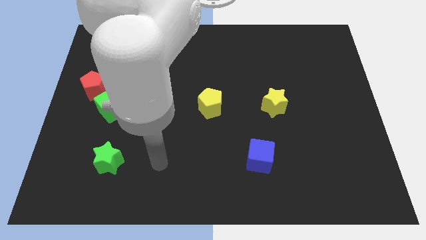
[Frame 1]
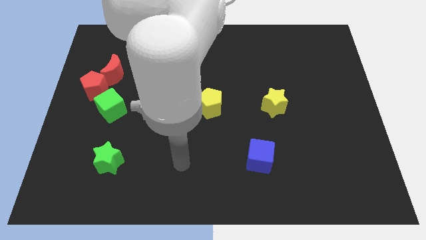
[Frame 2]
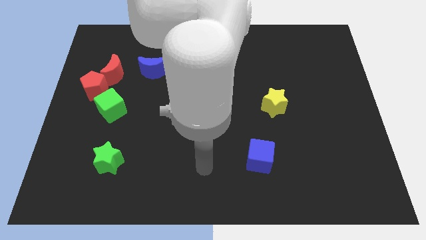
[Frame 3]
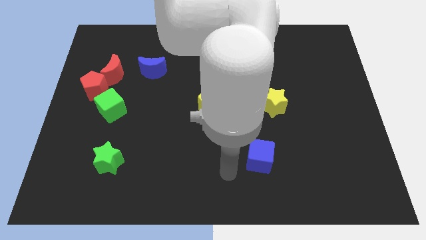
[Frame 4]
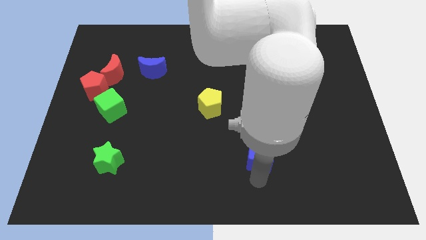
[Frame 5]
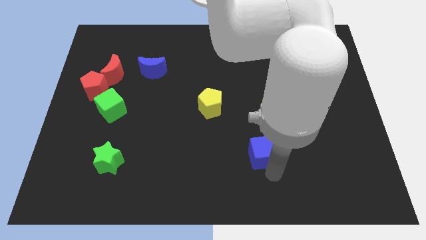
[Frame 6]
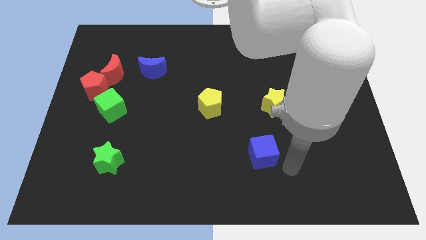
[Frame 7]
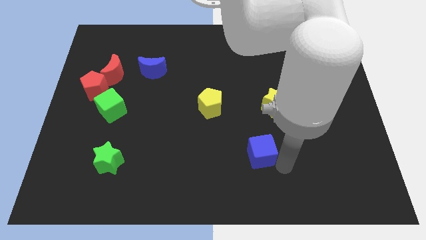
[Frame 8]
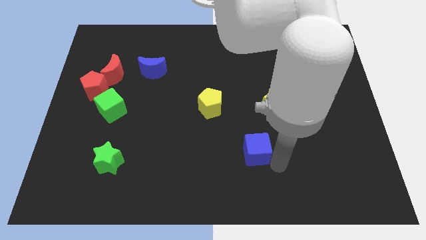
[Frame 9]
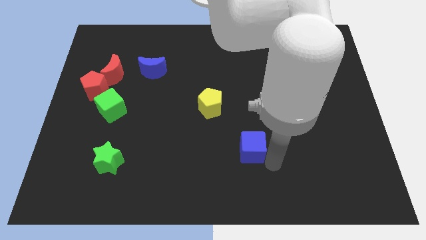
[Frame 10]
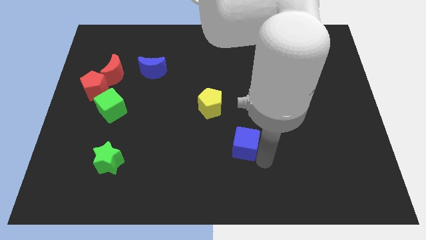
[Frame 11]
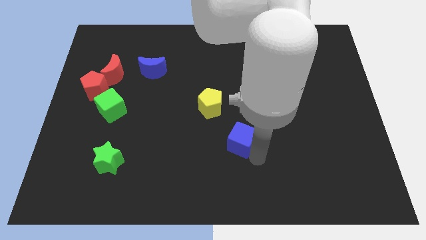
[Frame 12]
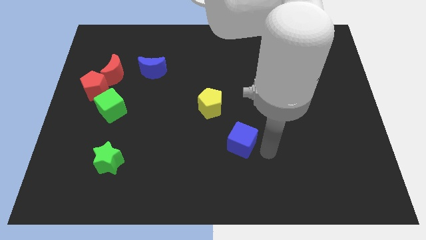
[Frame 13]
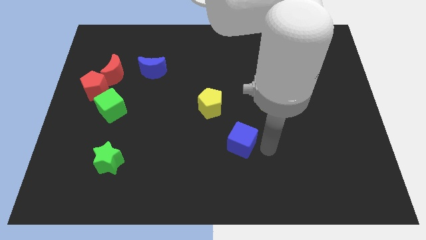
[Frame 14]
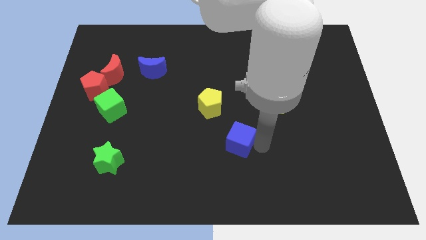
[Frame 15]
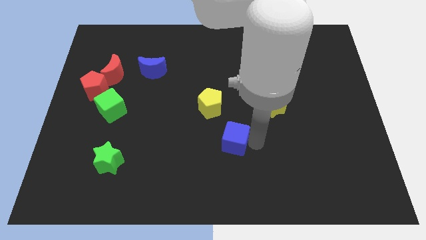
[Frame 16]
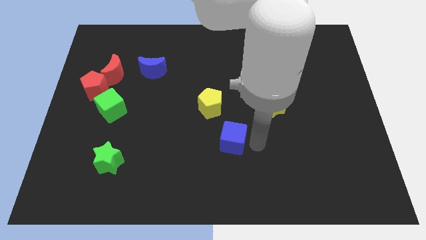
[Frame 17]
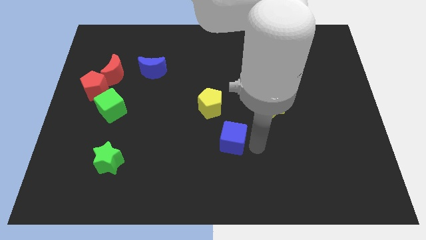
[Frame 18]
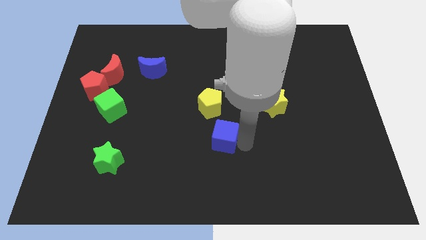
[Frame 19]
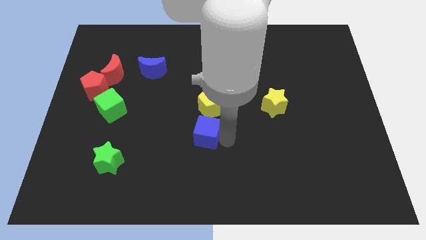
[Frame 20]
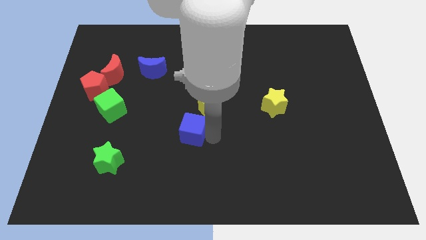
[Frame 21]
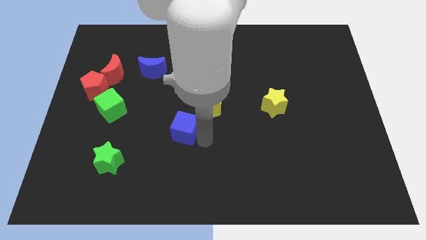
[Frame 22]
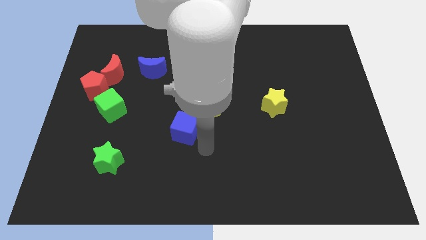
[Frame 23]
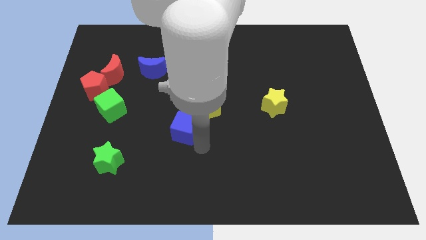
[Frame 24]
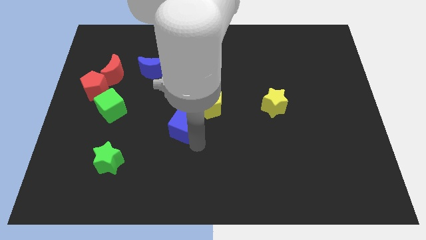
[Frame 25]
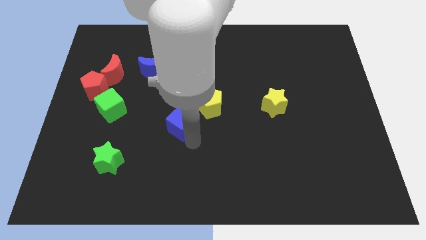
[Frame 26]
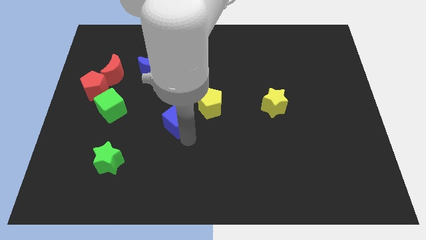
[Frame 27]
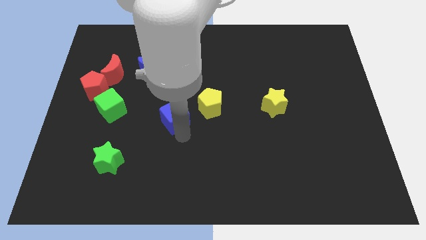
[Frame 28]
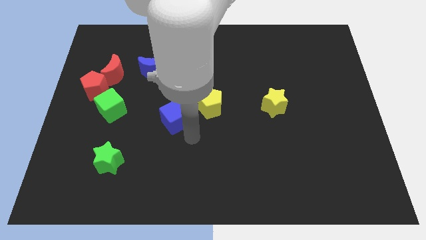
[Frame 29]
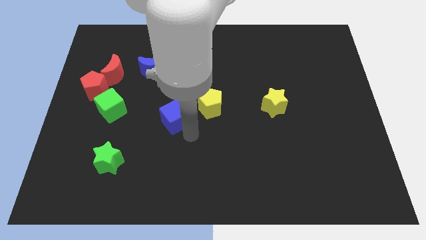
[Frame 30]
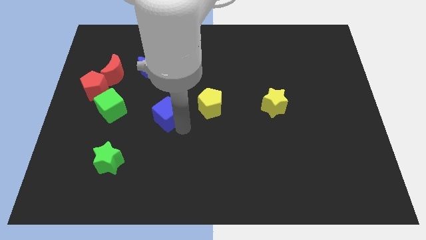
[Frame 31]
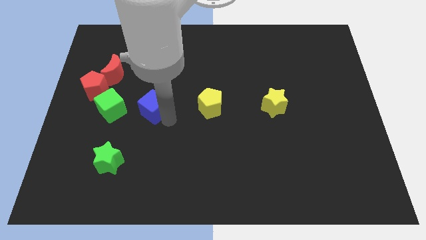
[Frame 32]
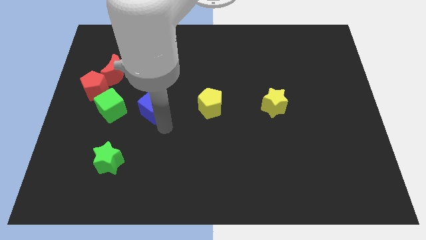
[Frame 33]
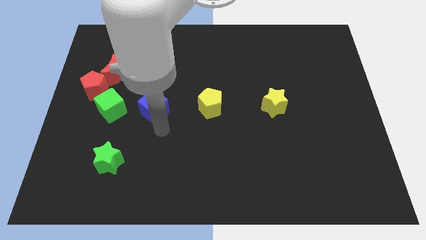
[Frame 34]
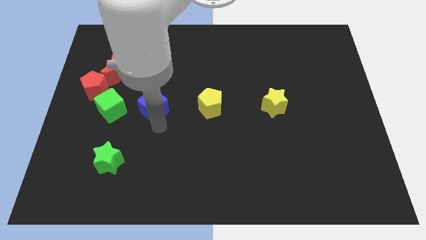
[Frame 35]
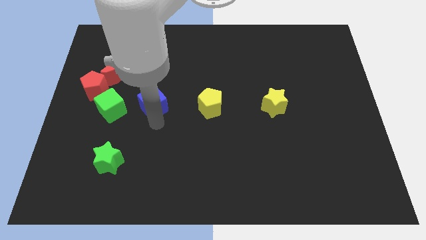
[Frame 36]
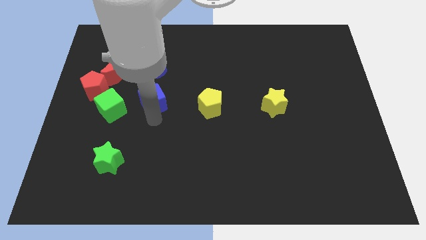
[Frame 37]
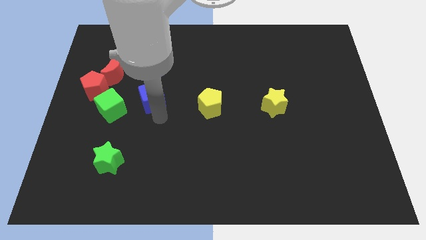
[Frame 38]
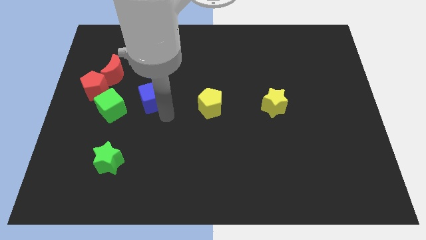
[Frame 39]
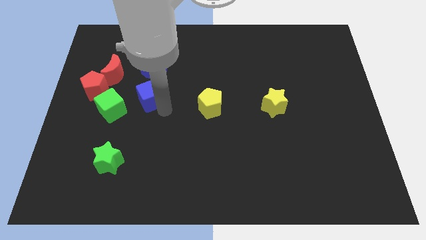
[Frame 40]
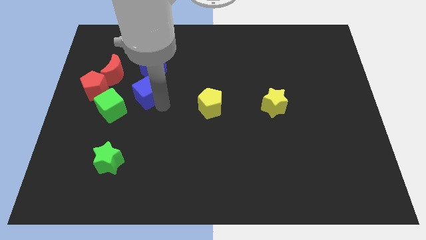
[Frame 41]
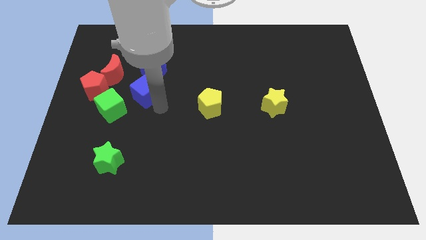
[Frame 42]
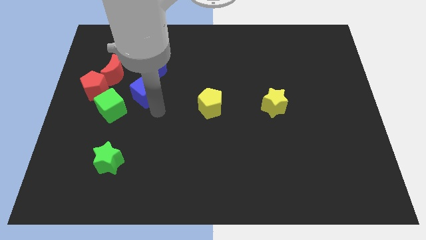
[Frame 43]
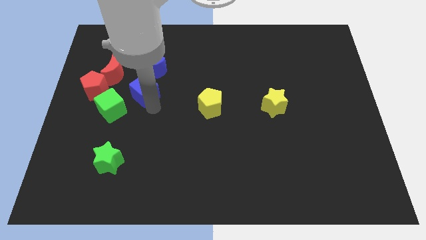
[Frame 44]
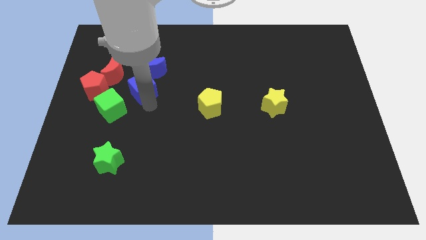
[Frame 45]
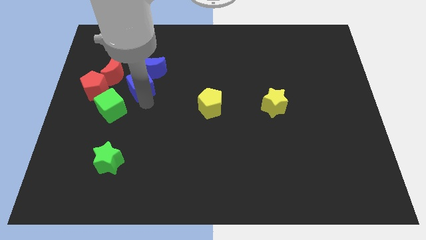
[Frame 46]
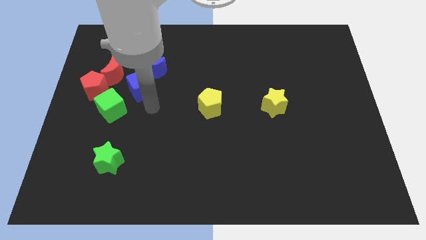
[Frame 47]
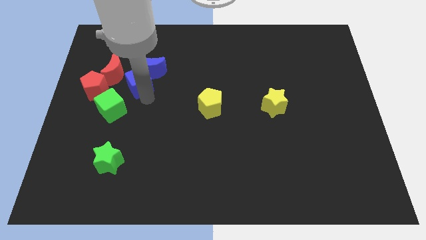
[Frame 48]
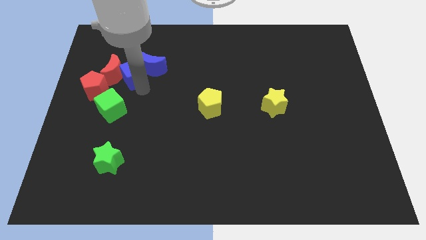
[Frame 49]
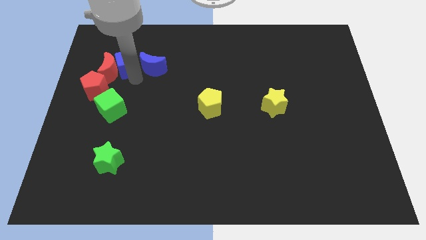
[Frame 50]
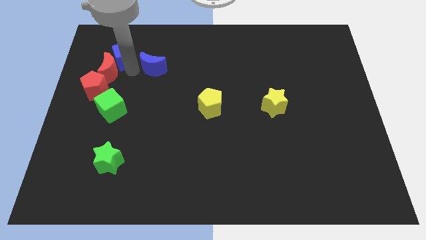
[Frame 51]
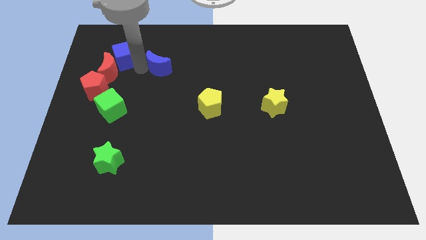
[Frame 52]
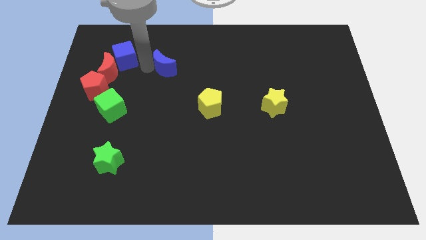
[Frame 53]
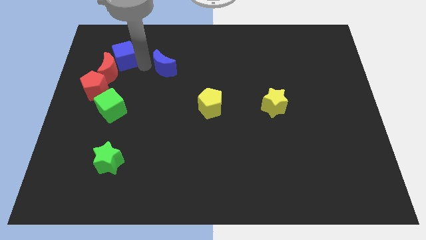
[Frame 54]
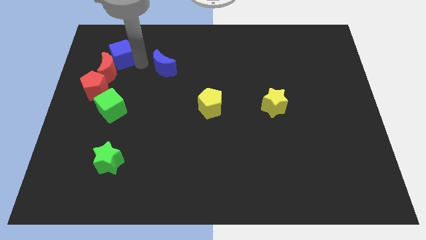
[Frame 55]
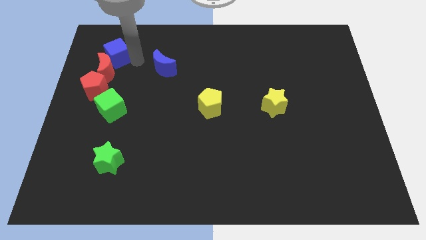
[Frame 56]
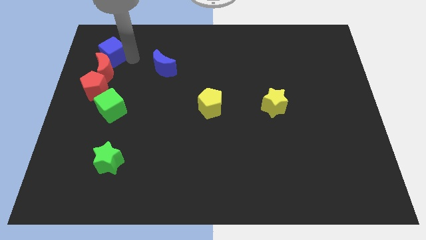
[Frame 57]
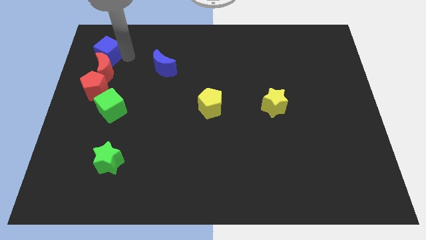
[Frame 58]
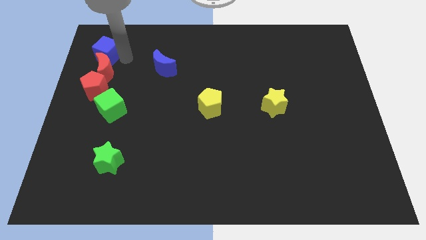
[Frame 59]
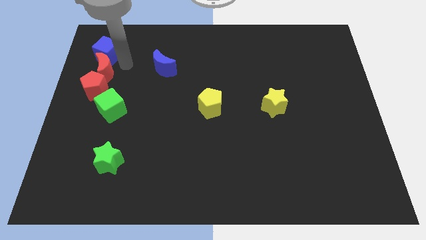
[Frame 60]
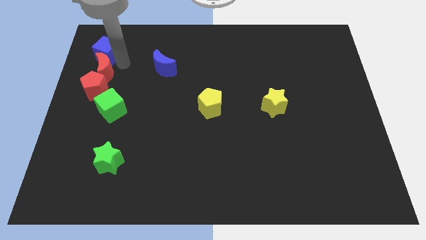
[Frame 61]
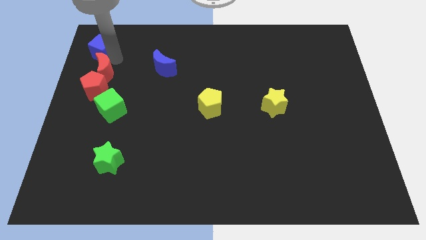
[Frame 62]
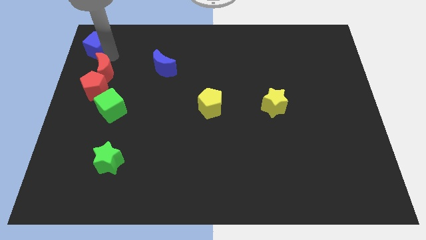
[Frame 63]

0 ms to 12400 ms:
put the blue cube to the upper left corner
